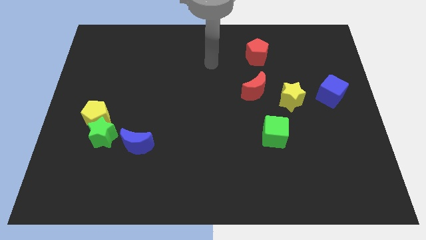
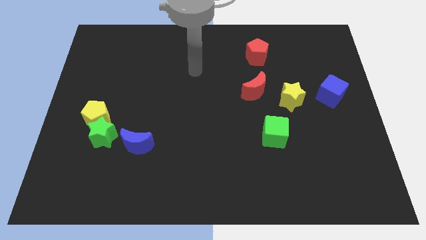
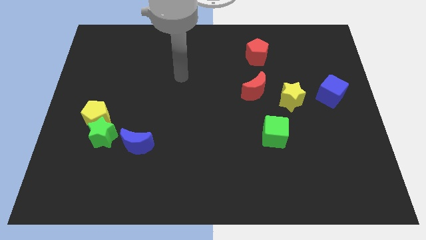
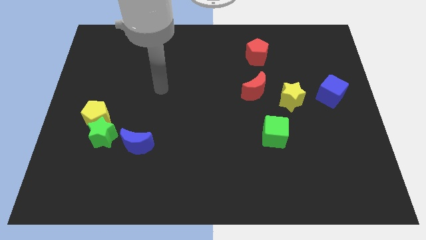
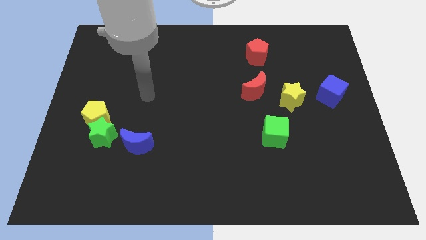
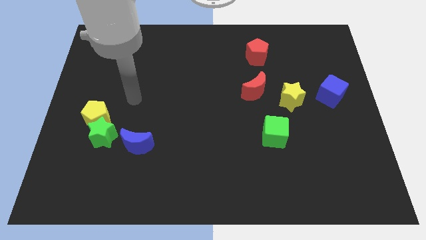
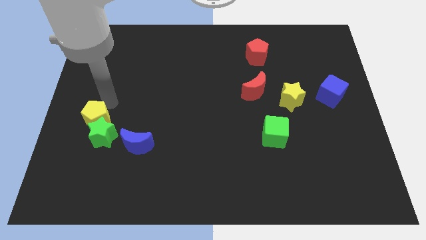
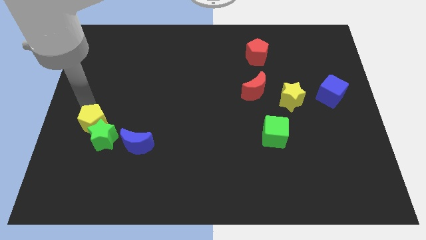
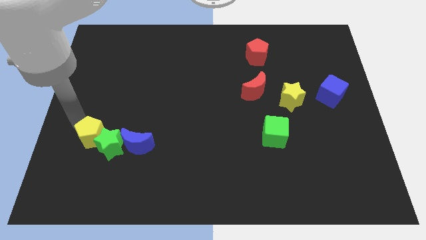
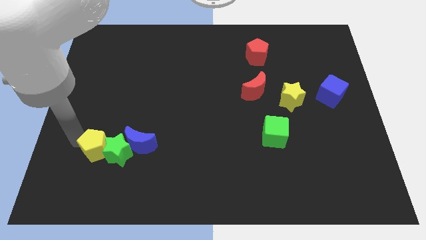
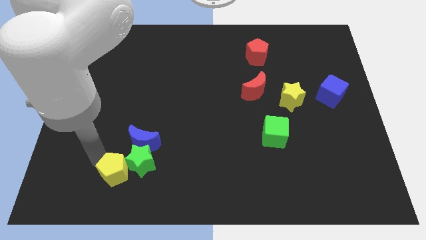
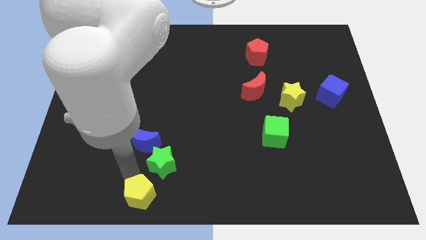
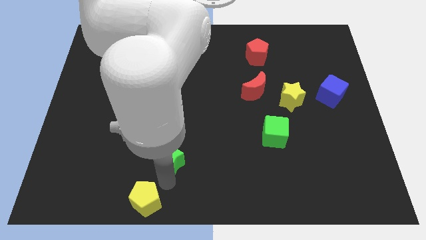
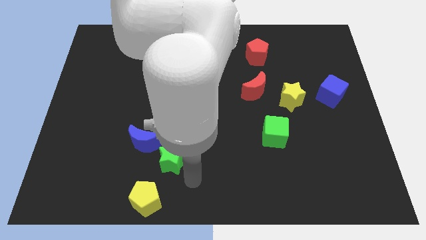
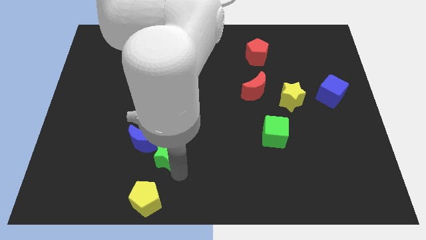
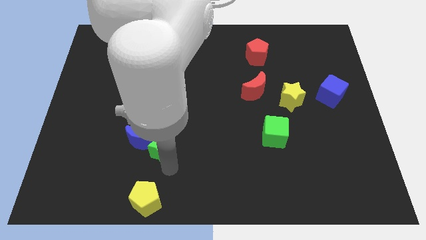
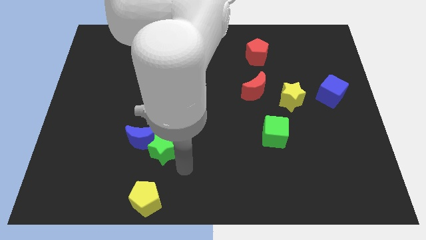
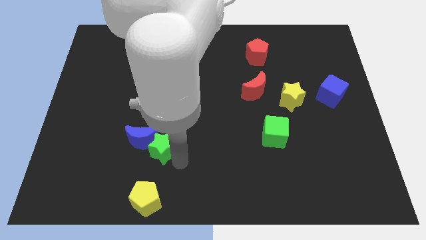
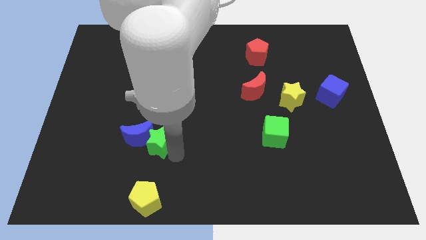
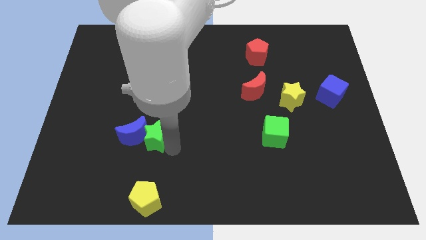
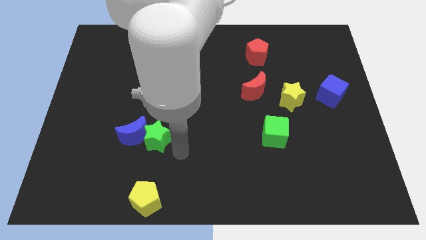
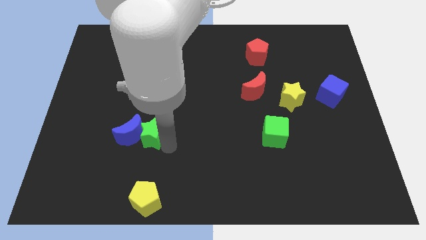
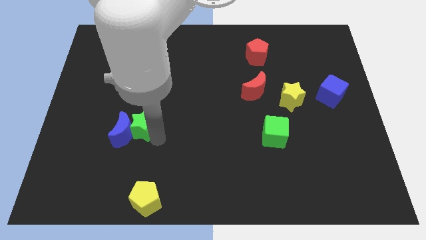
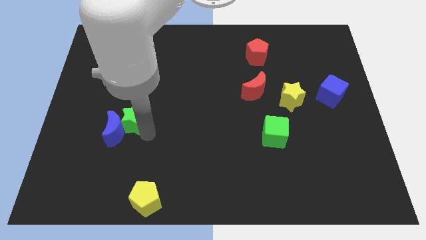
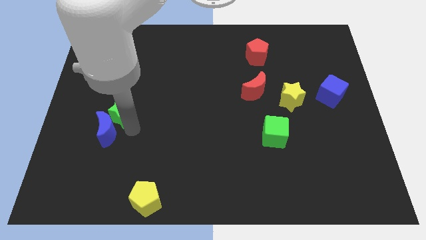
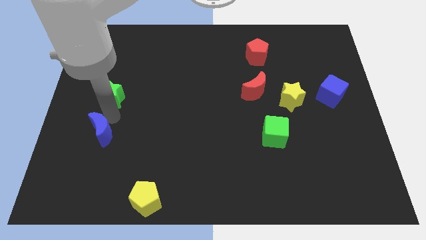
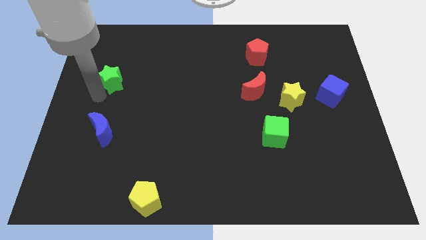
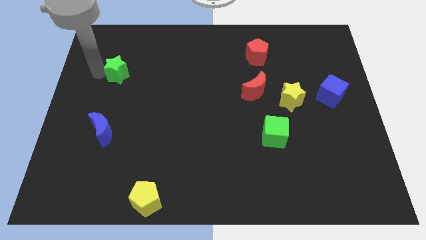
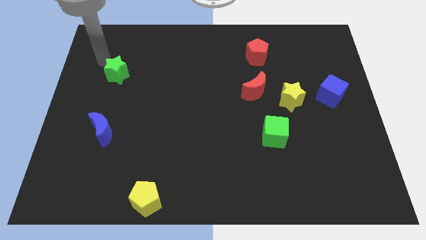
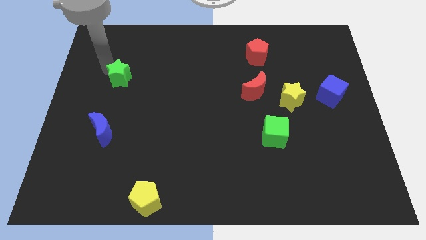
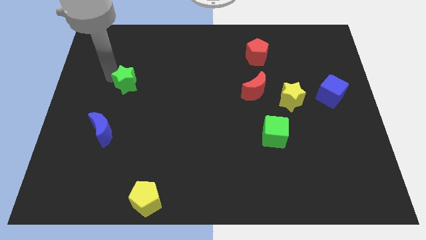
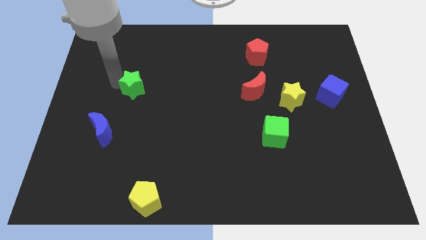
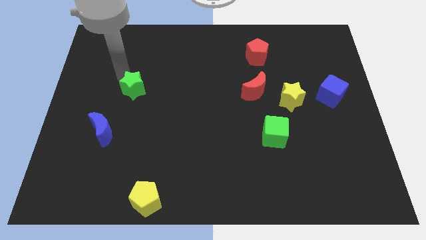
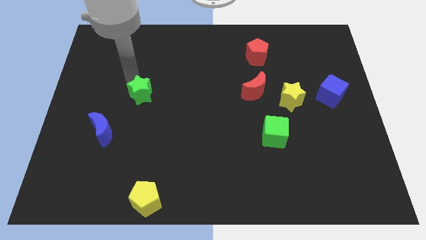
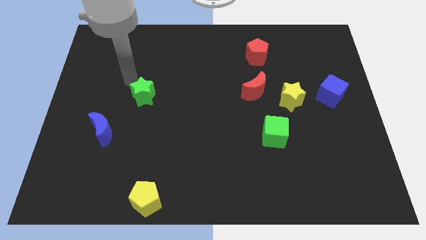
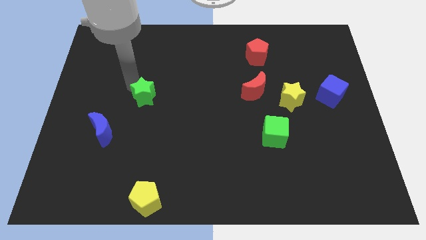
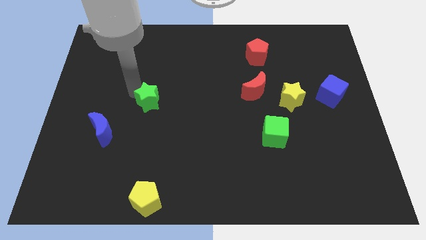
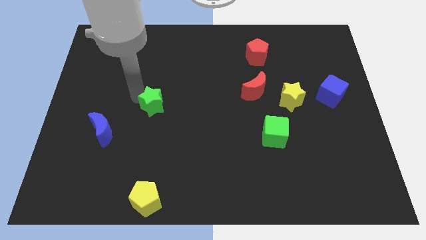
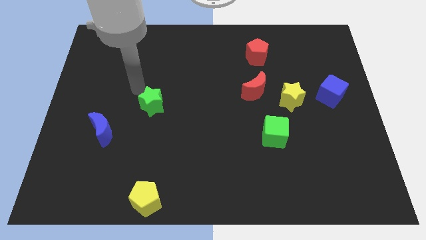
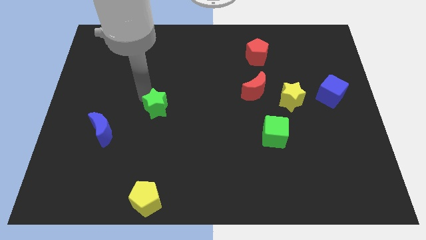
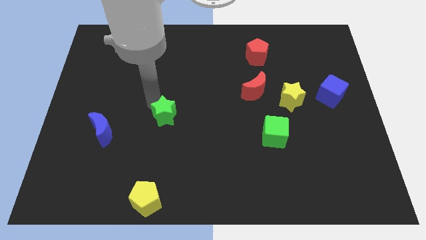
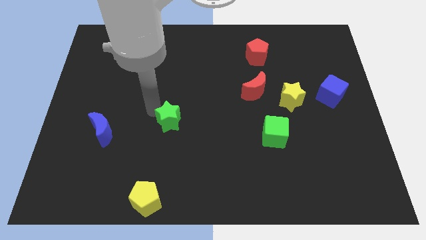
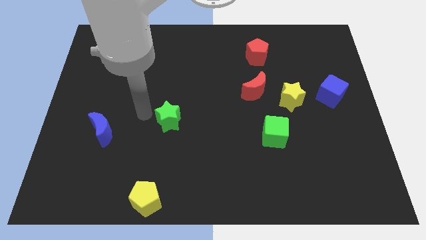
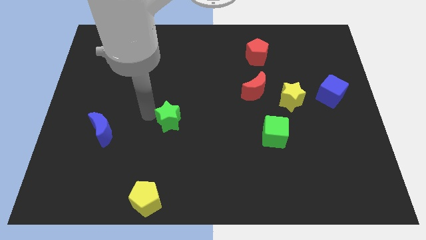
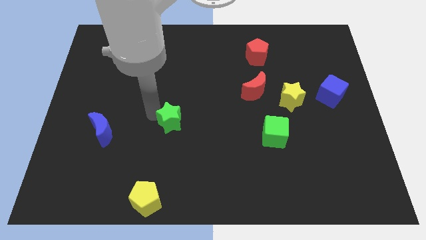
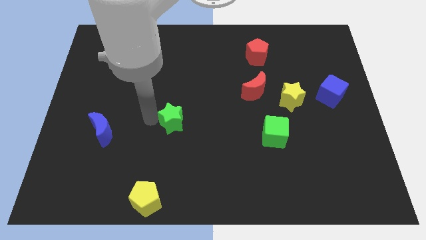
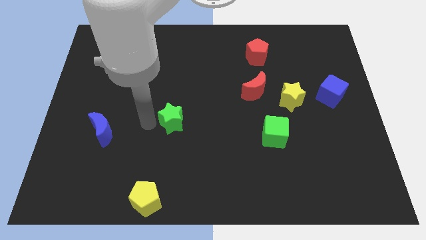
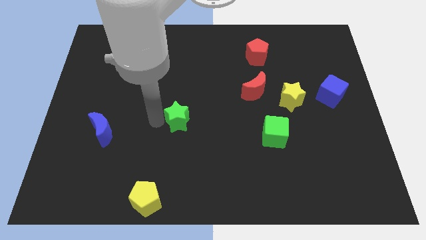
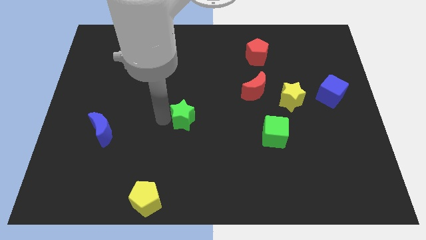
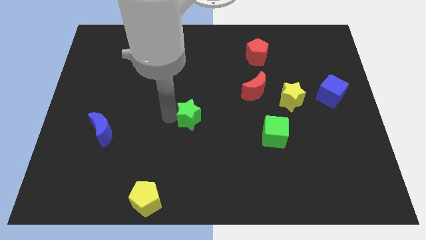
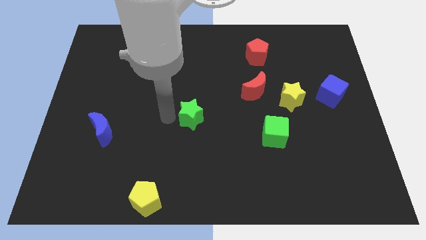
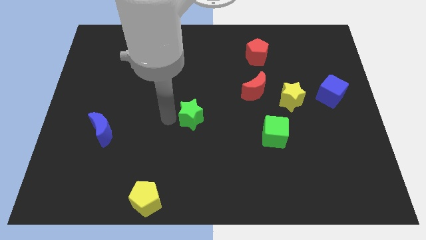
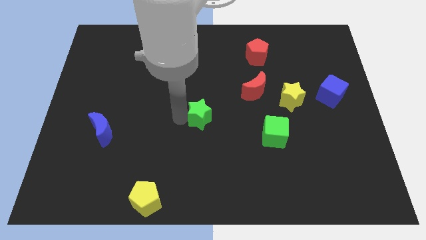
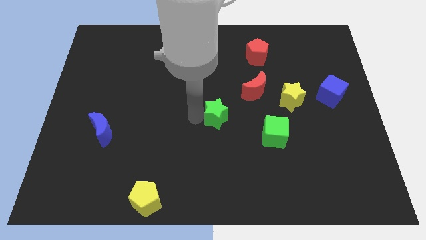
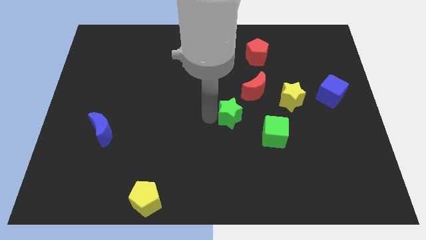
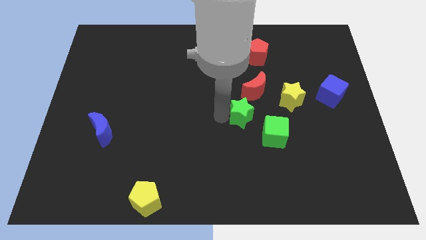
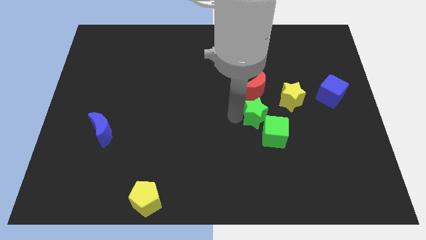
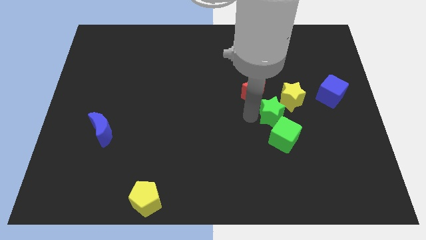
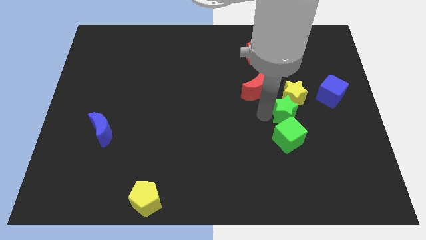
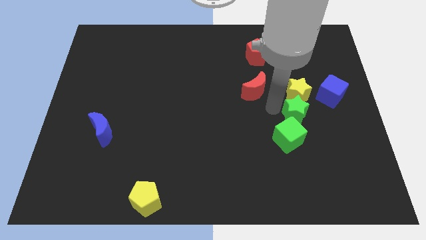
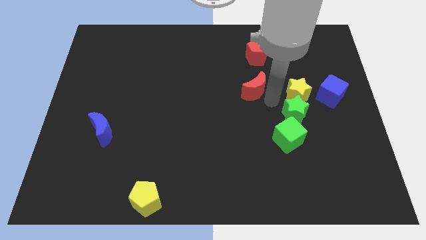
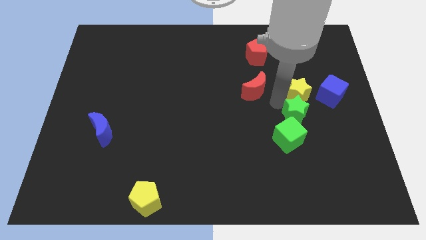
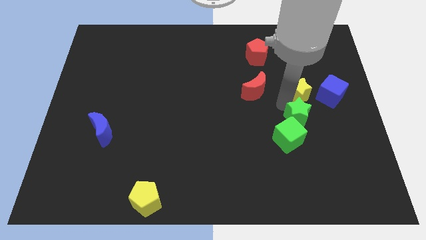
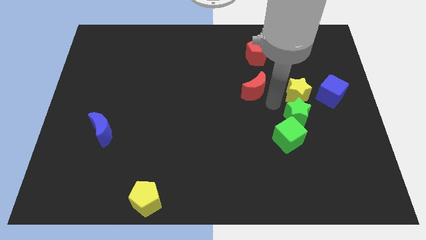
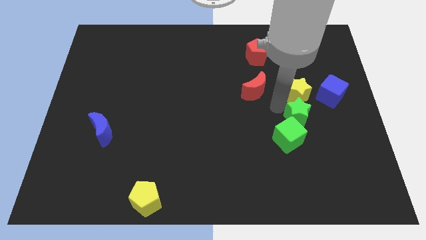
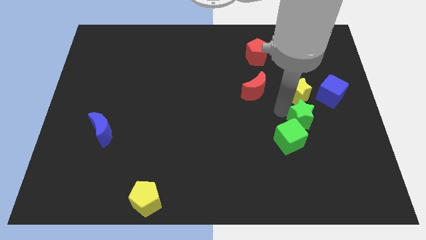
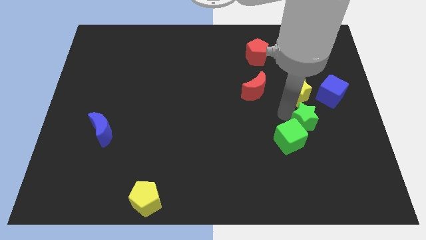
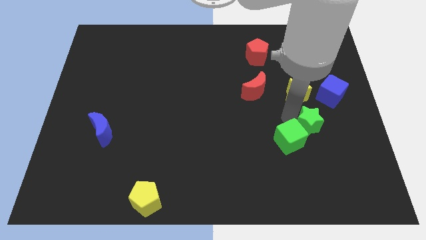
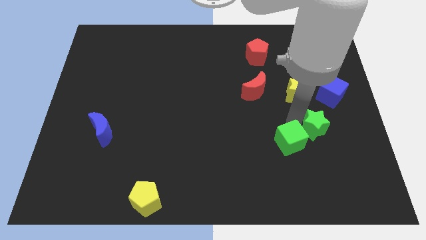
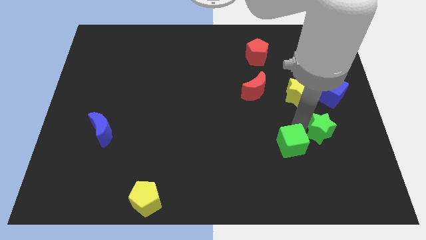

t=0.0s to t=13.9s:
put the green star to the bottom side of the blue cube
